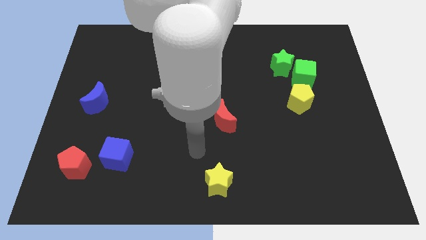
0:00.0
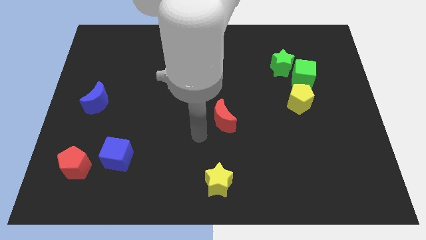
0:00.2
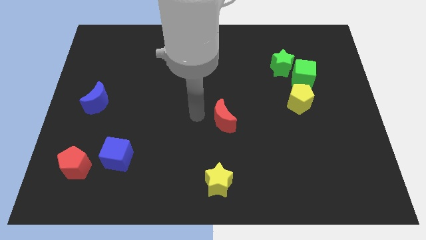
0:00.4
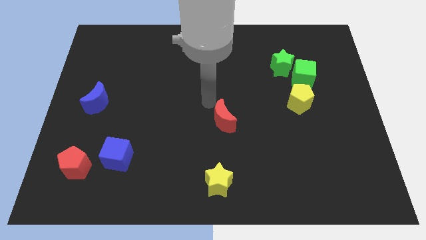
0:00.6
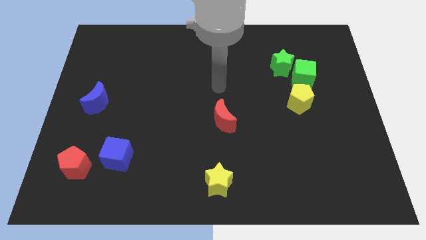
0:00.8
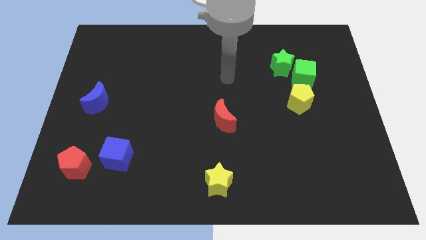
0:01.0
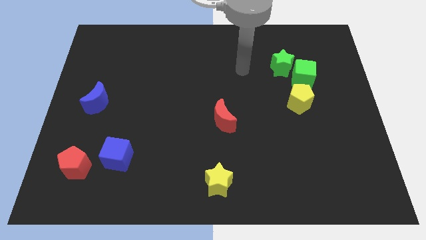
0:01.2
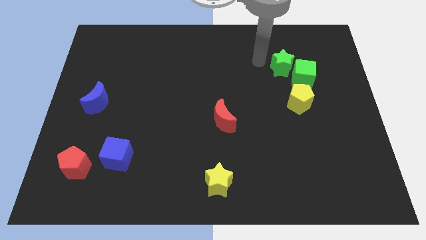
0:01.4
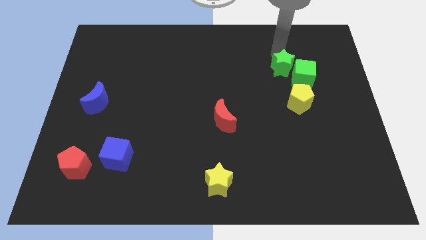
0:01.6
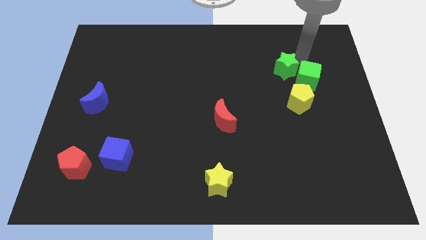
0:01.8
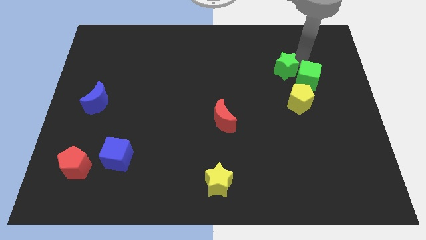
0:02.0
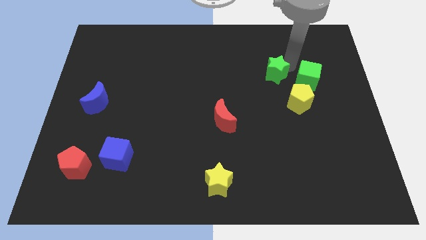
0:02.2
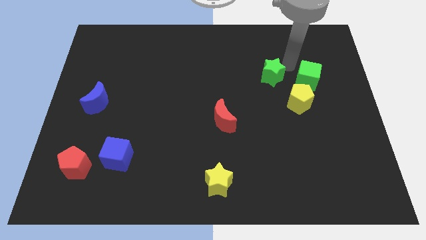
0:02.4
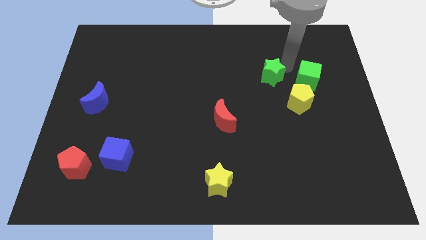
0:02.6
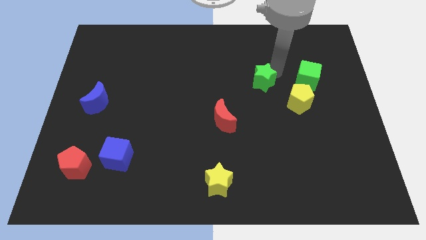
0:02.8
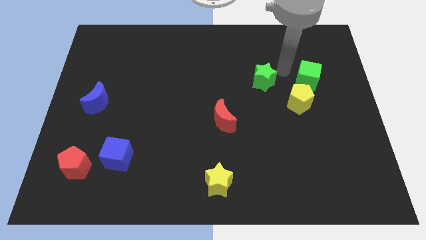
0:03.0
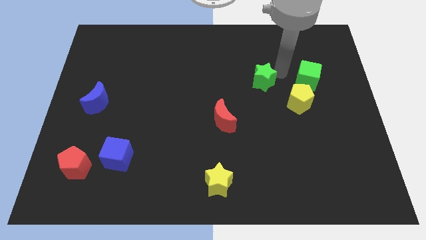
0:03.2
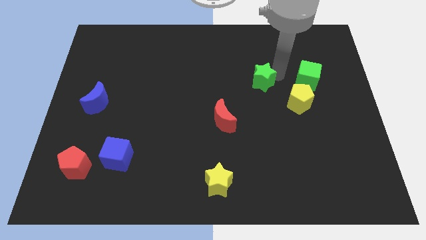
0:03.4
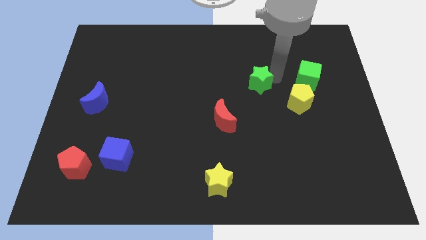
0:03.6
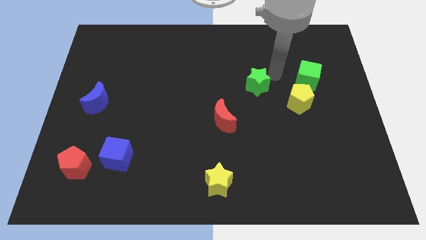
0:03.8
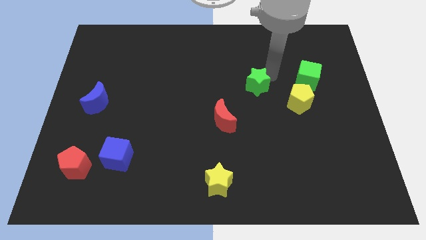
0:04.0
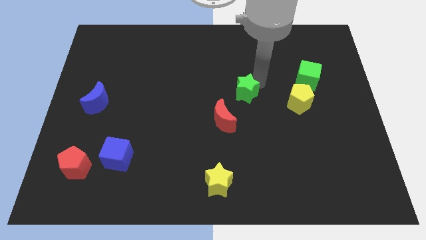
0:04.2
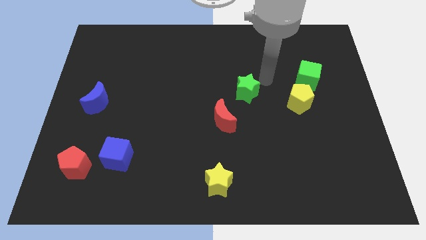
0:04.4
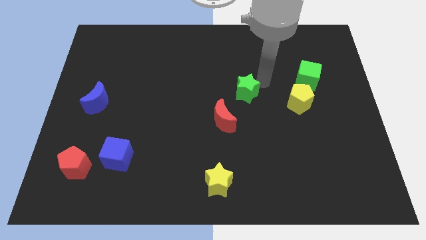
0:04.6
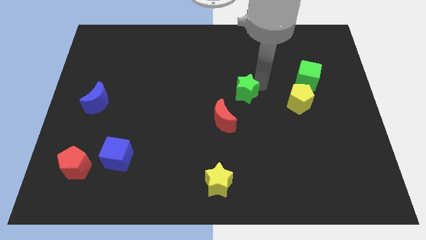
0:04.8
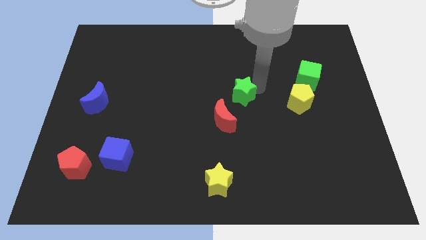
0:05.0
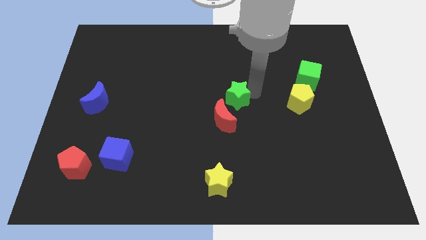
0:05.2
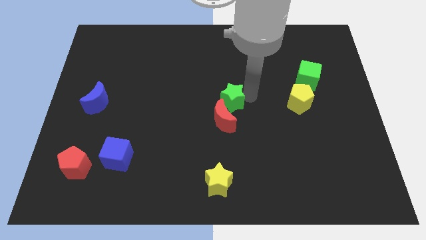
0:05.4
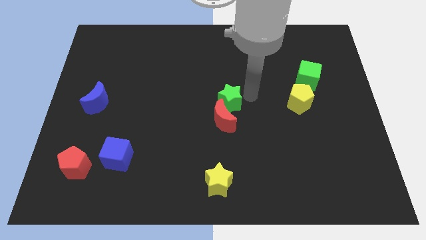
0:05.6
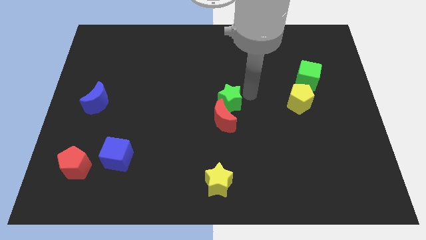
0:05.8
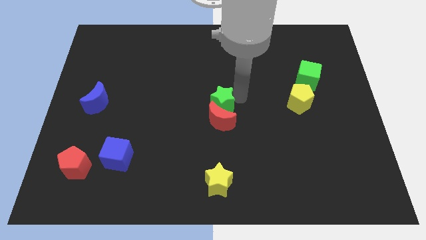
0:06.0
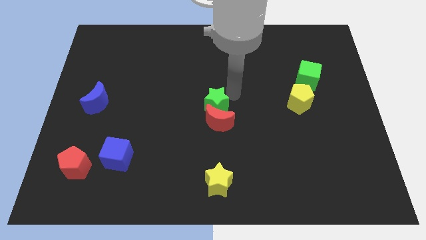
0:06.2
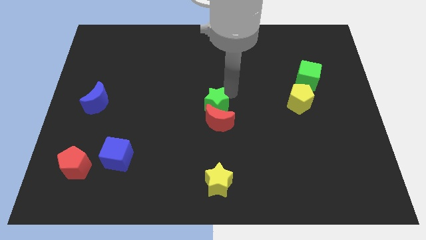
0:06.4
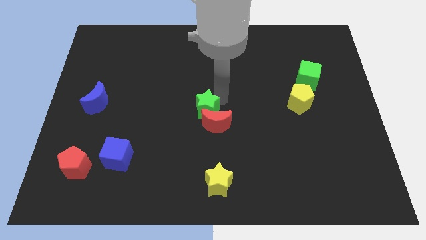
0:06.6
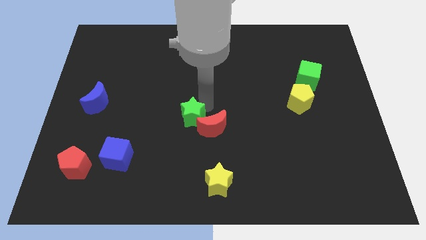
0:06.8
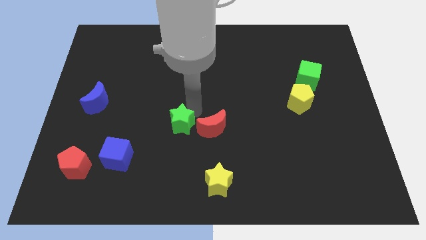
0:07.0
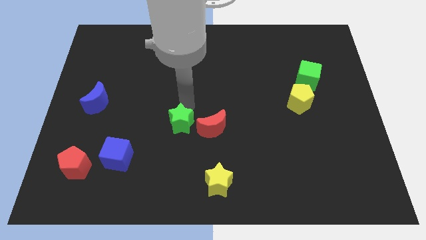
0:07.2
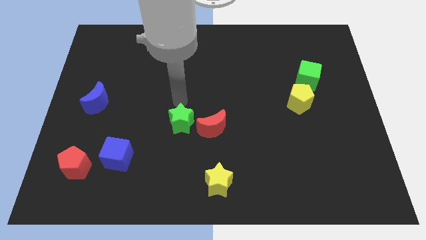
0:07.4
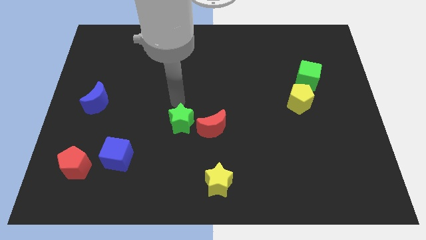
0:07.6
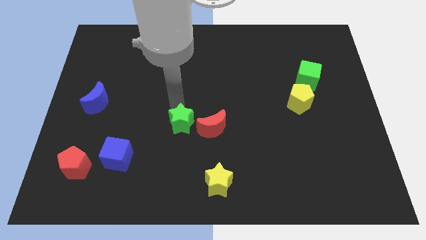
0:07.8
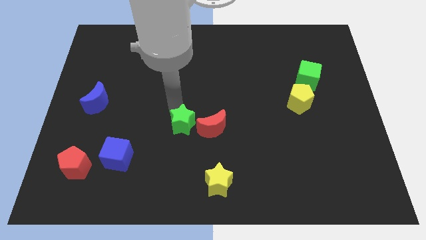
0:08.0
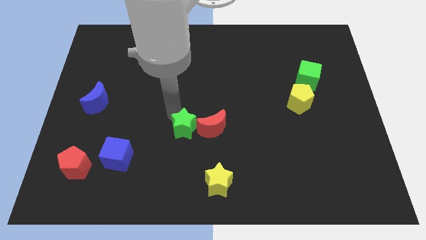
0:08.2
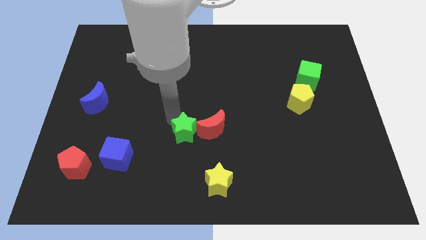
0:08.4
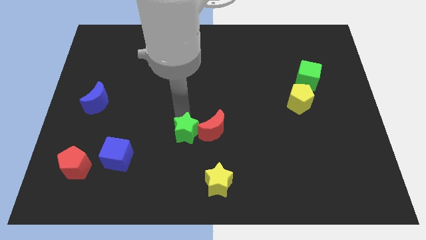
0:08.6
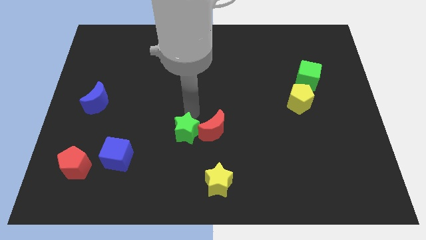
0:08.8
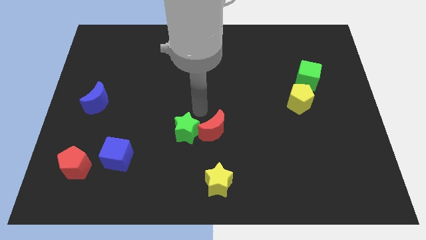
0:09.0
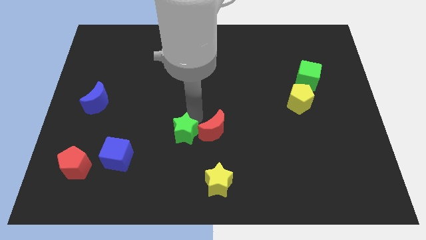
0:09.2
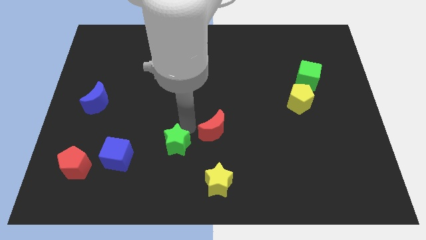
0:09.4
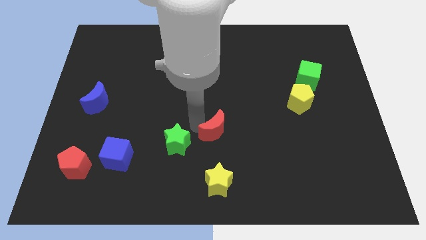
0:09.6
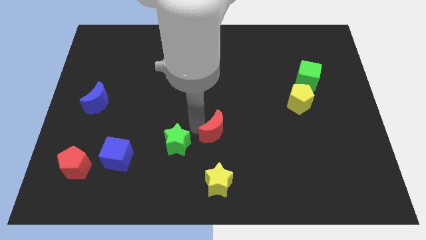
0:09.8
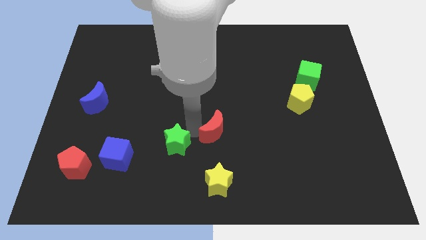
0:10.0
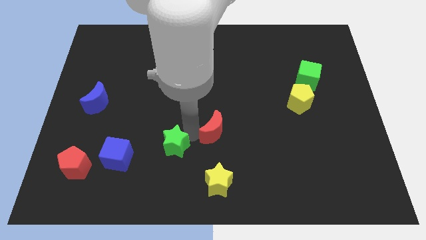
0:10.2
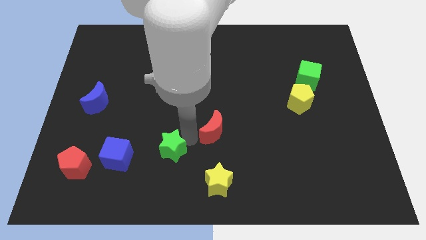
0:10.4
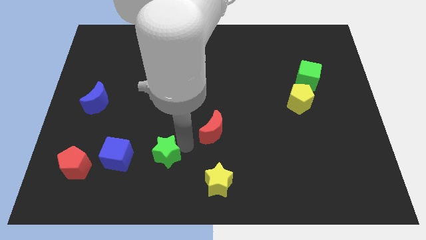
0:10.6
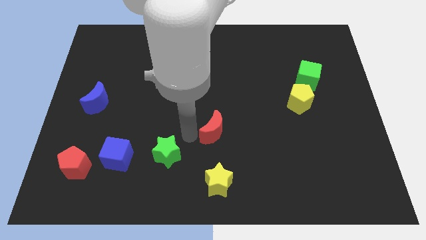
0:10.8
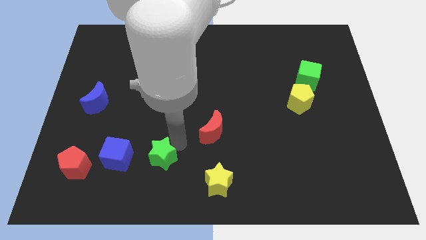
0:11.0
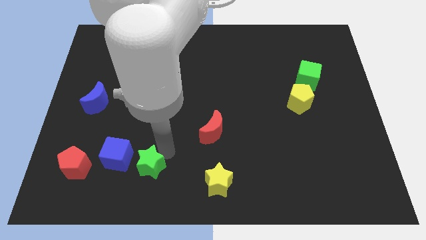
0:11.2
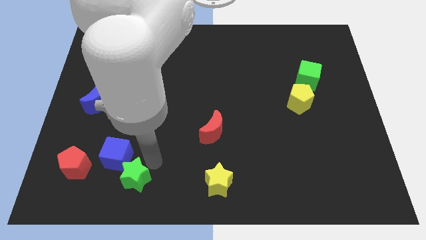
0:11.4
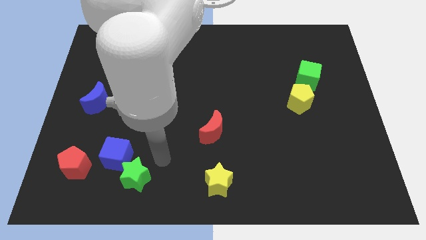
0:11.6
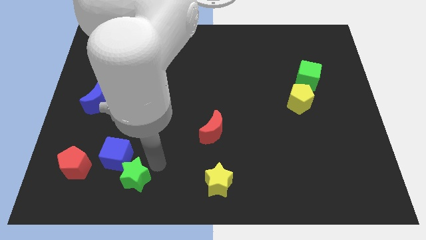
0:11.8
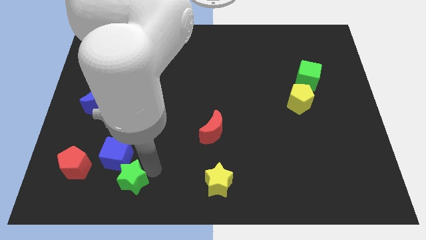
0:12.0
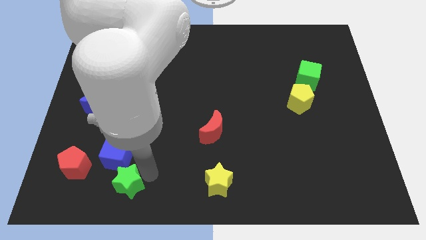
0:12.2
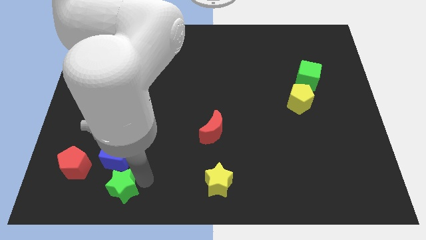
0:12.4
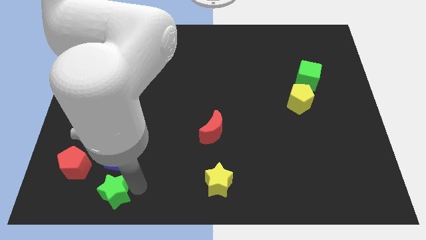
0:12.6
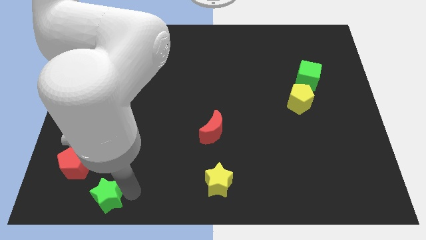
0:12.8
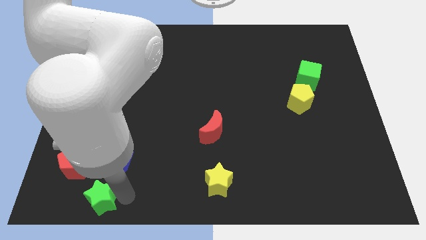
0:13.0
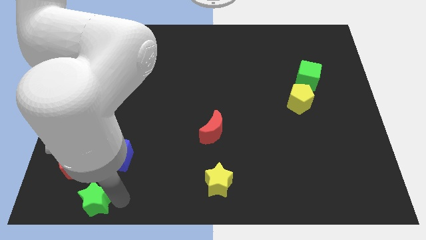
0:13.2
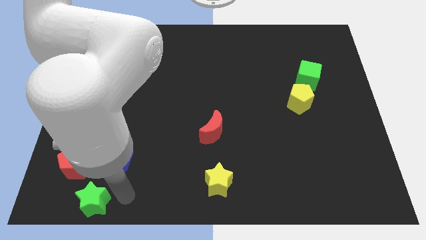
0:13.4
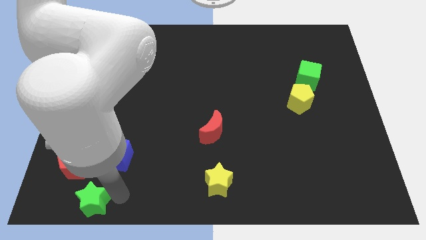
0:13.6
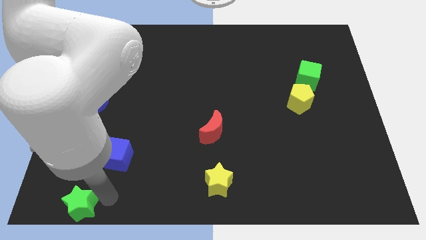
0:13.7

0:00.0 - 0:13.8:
slide the green star to the bottom left corner
